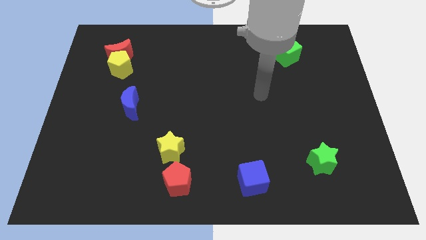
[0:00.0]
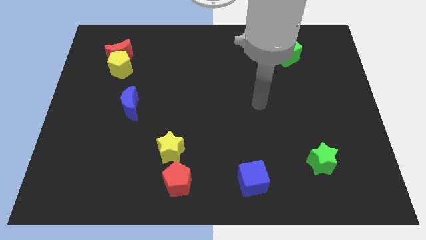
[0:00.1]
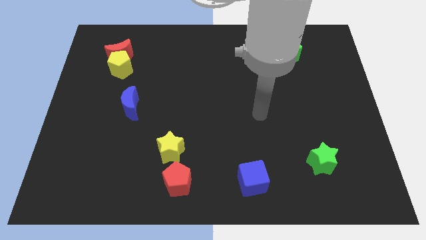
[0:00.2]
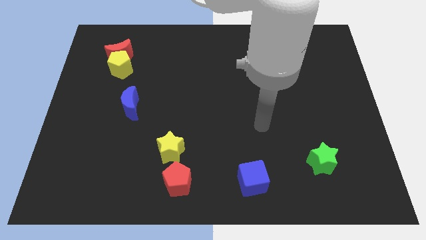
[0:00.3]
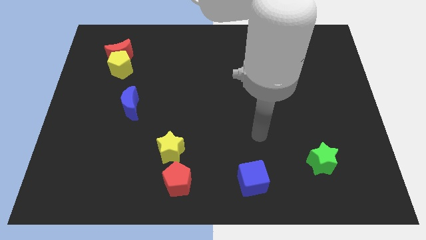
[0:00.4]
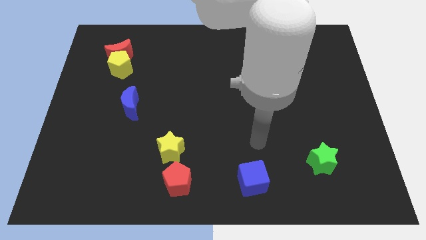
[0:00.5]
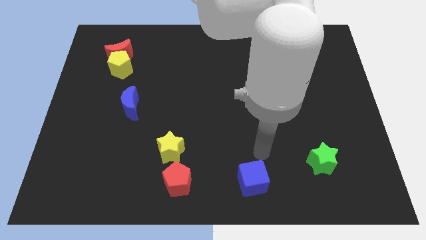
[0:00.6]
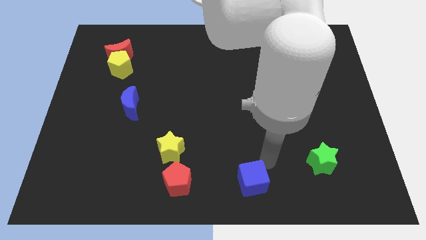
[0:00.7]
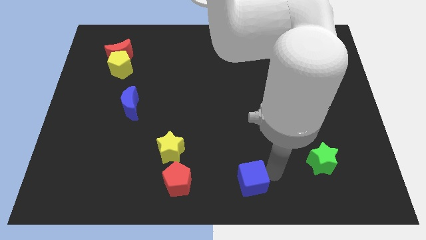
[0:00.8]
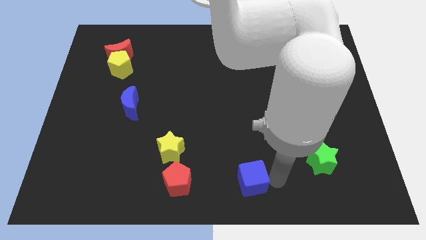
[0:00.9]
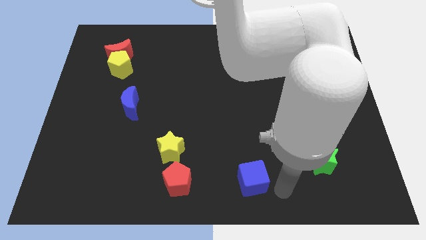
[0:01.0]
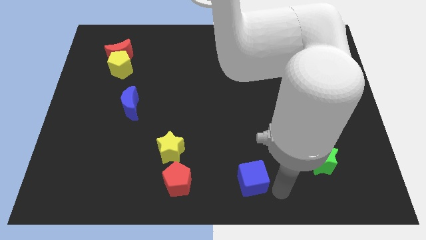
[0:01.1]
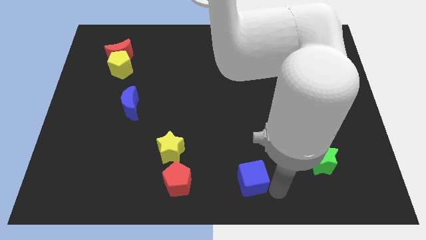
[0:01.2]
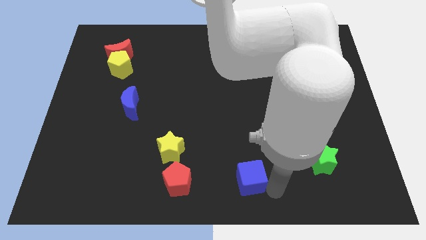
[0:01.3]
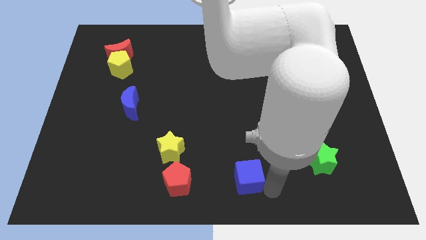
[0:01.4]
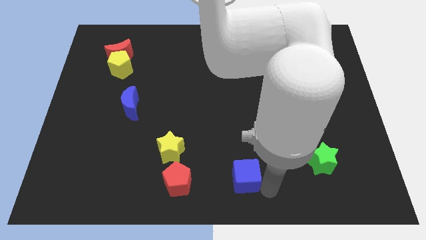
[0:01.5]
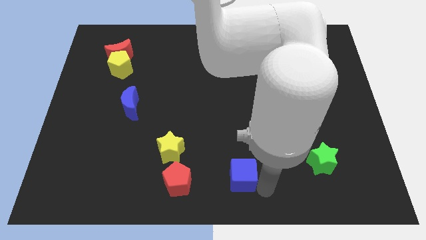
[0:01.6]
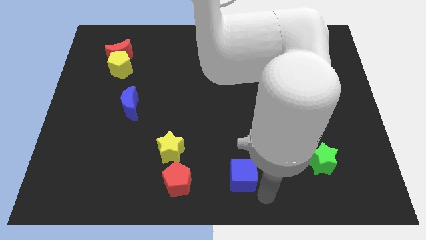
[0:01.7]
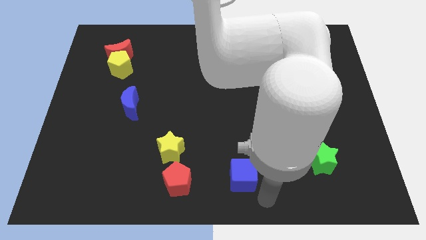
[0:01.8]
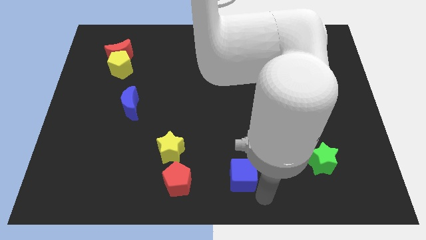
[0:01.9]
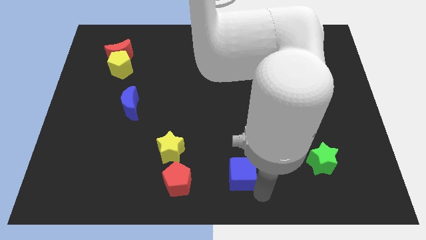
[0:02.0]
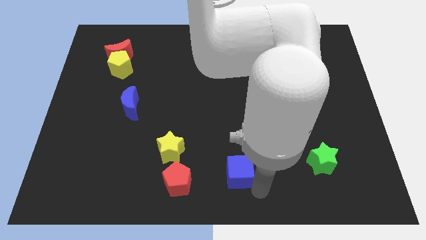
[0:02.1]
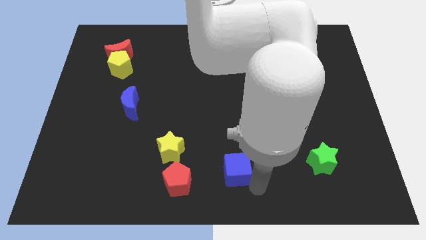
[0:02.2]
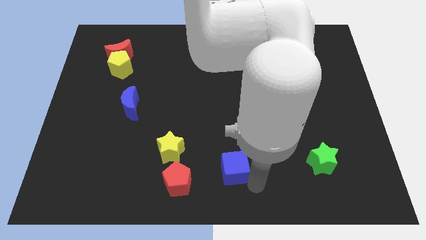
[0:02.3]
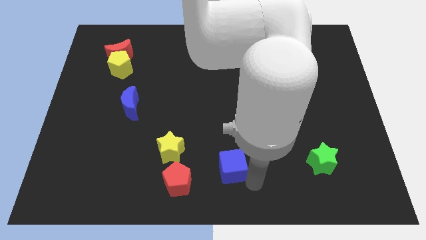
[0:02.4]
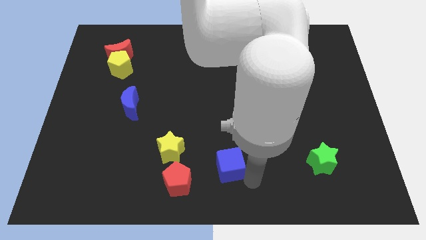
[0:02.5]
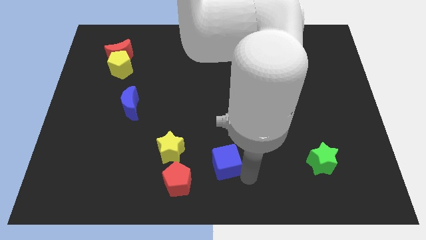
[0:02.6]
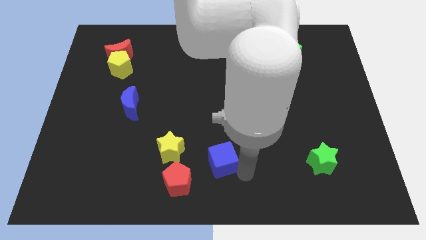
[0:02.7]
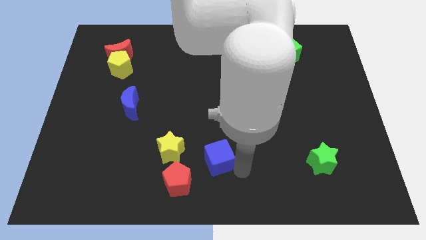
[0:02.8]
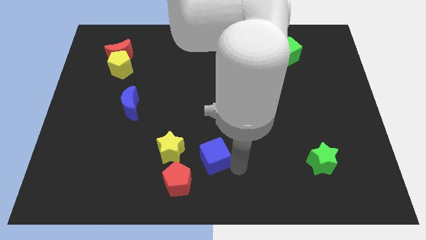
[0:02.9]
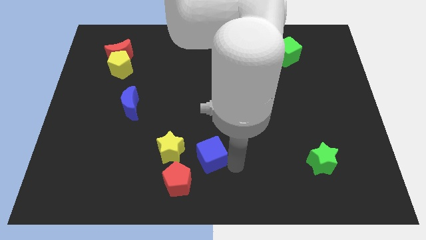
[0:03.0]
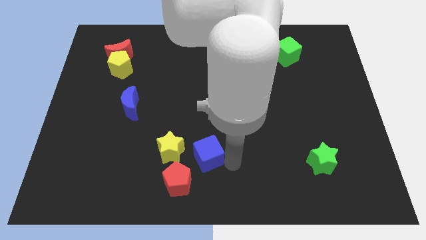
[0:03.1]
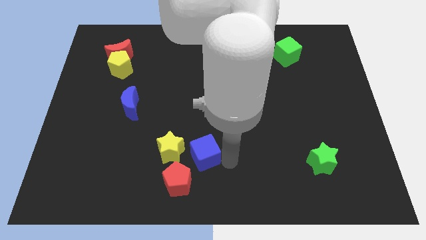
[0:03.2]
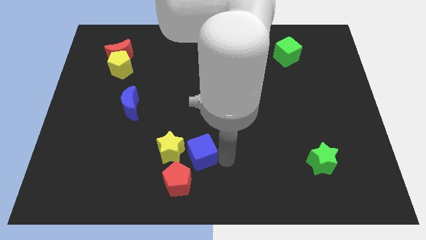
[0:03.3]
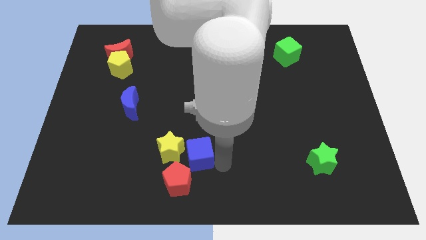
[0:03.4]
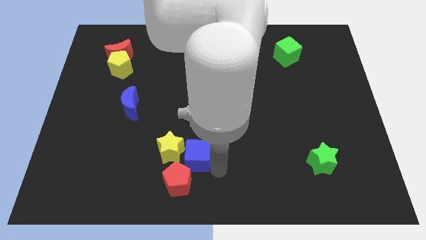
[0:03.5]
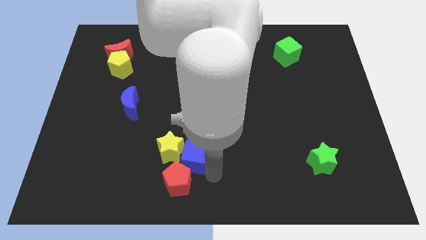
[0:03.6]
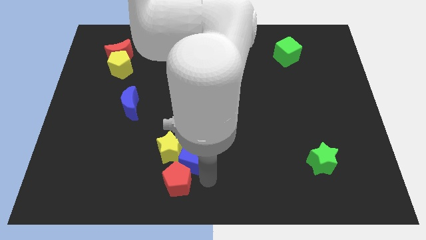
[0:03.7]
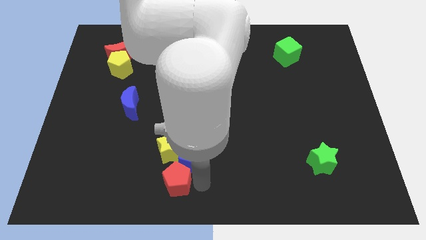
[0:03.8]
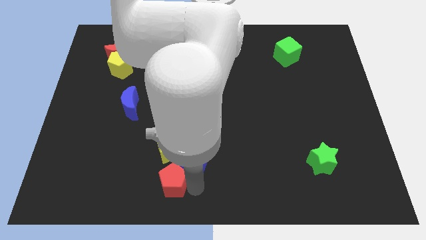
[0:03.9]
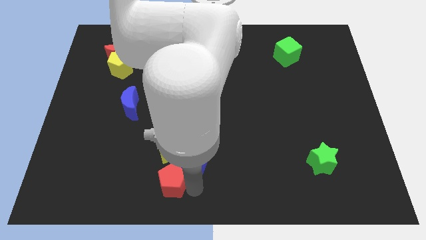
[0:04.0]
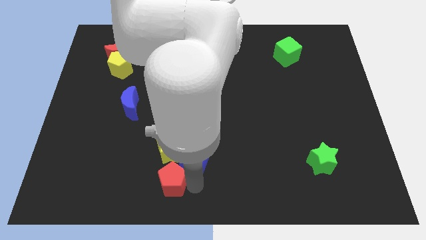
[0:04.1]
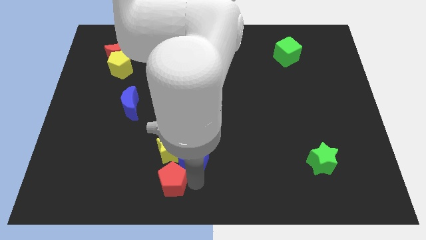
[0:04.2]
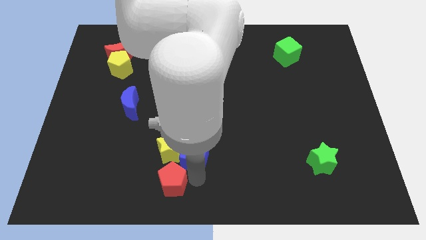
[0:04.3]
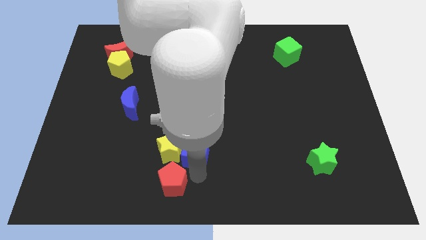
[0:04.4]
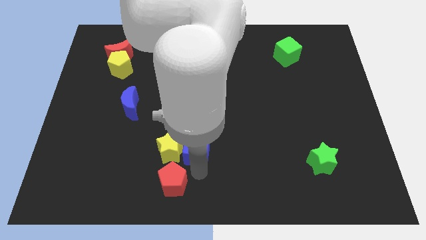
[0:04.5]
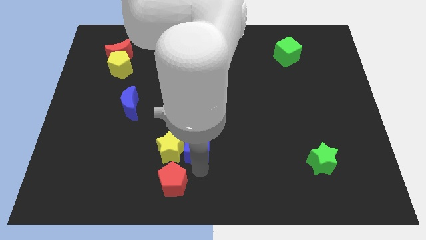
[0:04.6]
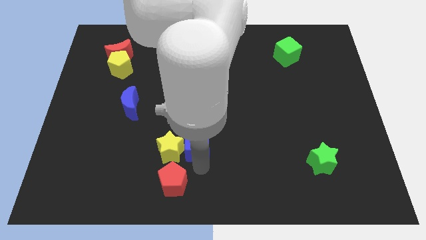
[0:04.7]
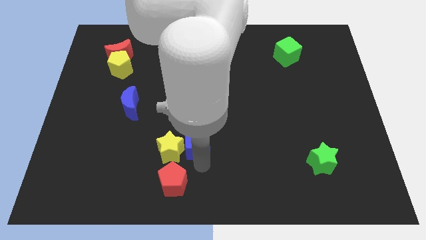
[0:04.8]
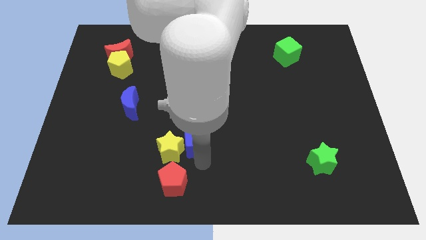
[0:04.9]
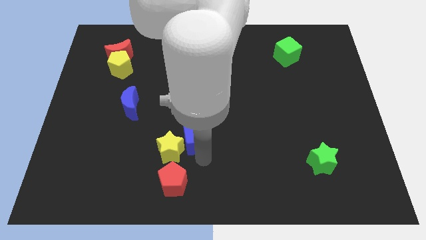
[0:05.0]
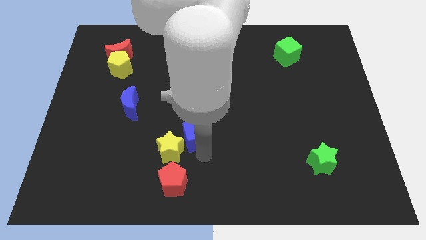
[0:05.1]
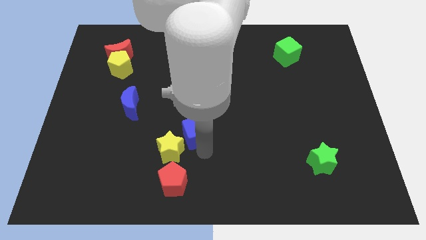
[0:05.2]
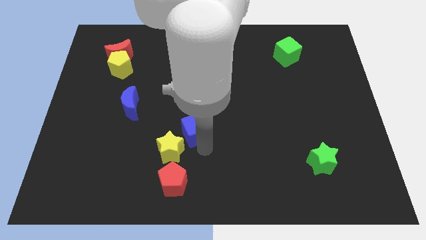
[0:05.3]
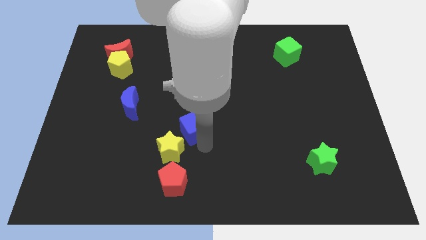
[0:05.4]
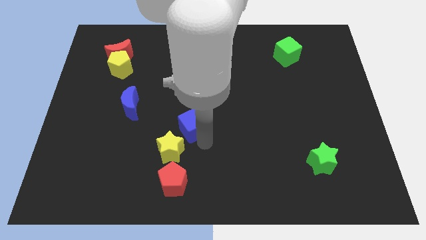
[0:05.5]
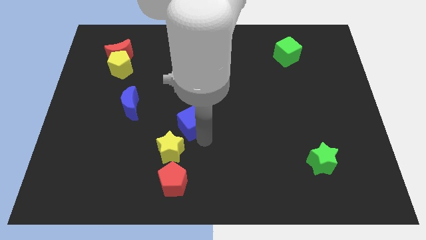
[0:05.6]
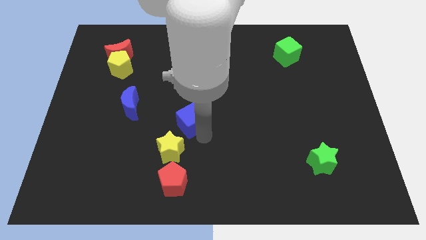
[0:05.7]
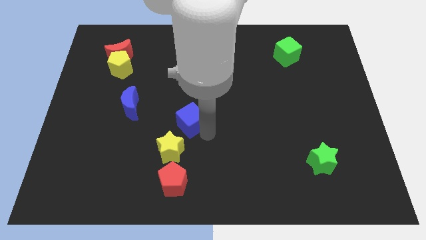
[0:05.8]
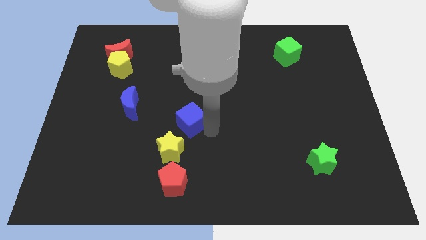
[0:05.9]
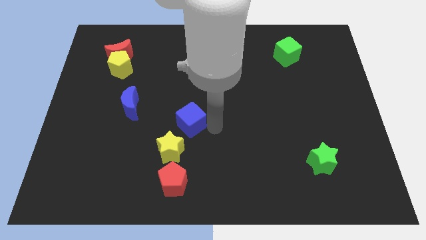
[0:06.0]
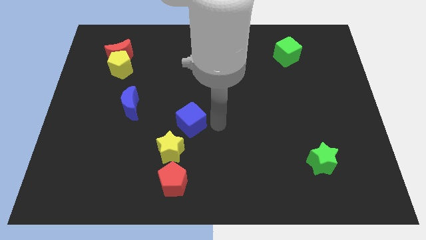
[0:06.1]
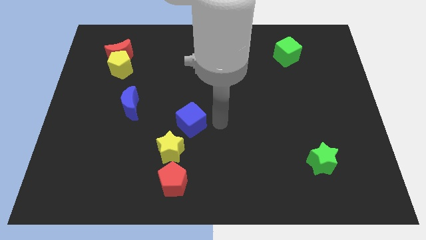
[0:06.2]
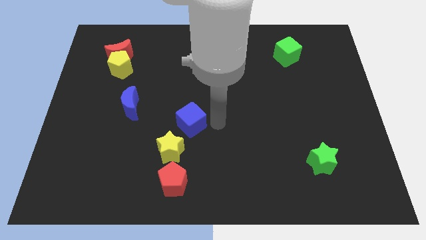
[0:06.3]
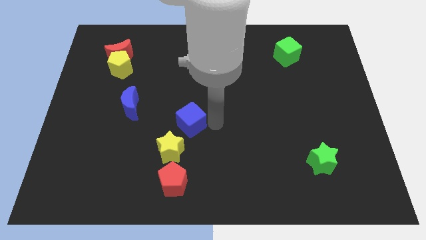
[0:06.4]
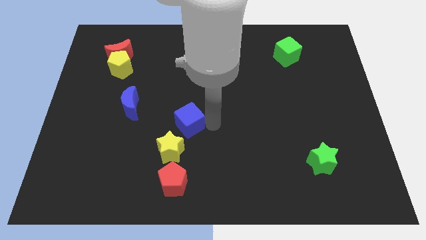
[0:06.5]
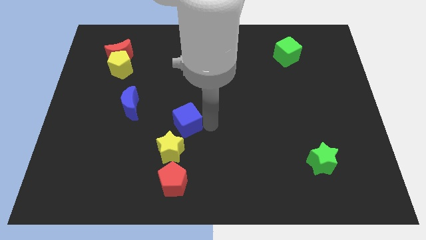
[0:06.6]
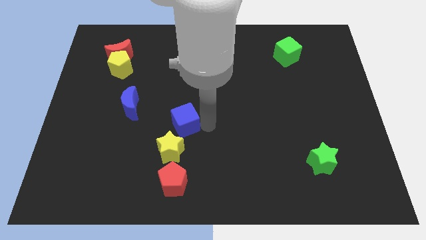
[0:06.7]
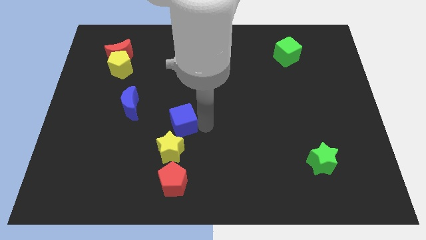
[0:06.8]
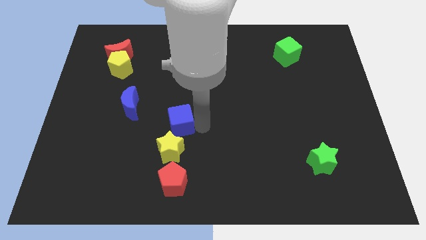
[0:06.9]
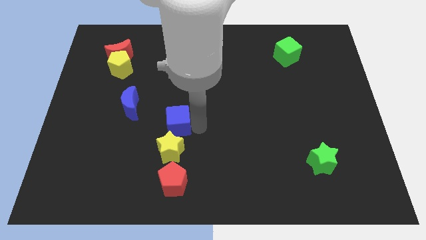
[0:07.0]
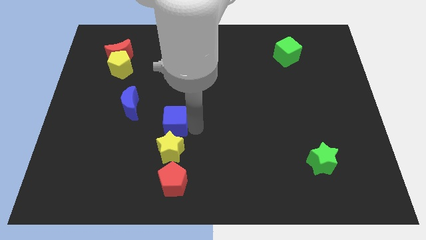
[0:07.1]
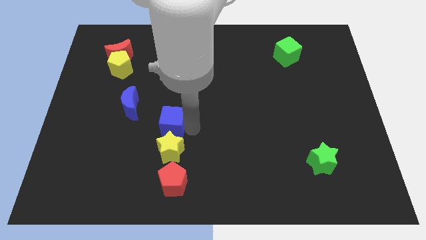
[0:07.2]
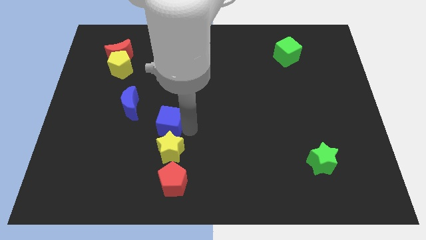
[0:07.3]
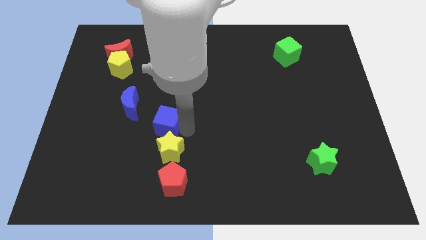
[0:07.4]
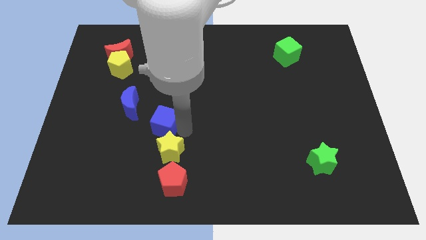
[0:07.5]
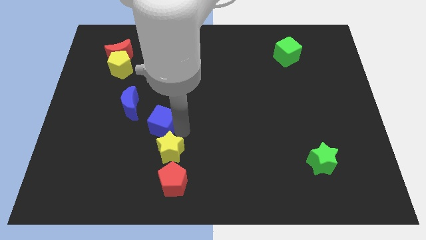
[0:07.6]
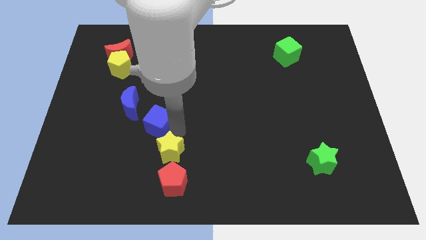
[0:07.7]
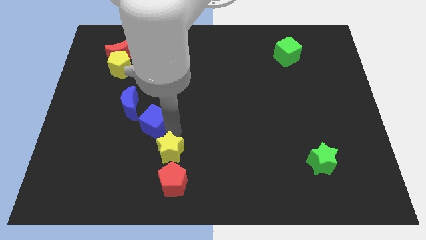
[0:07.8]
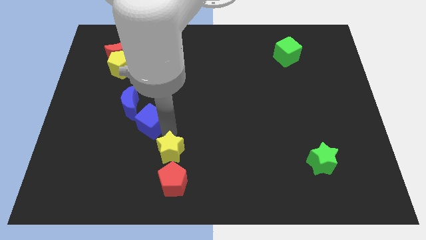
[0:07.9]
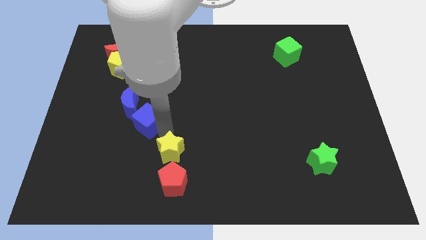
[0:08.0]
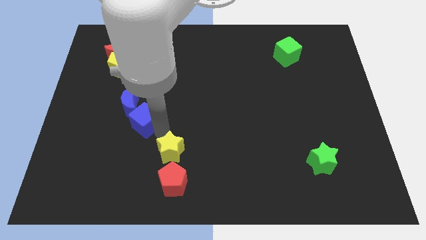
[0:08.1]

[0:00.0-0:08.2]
push the blue cube close to the blue moon
